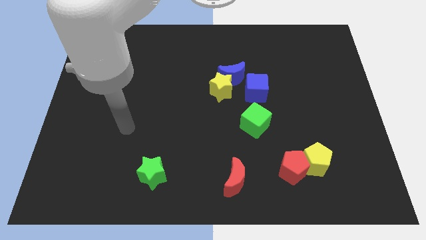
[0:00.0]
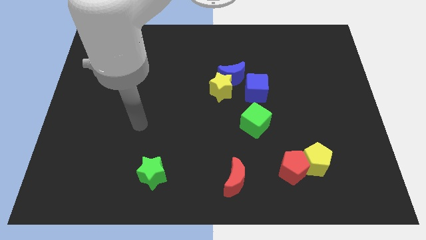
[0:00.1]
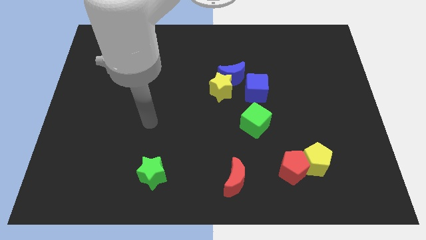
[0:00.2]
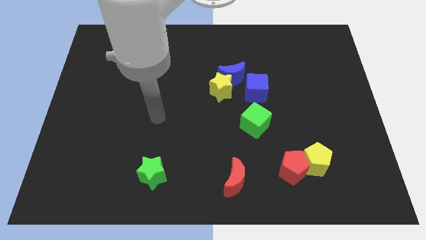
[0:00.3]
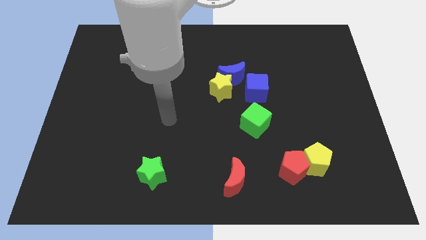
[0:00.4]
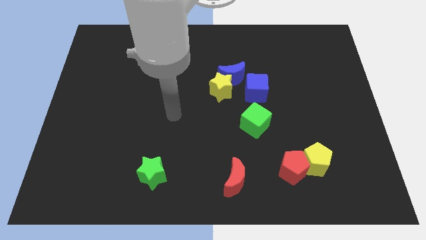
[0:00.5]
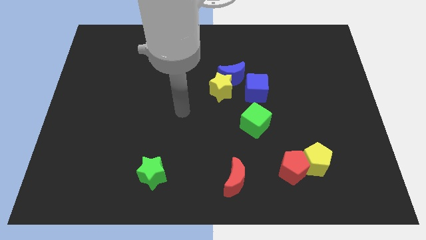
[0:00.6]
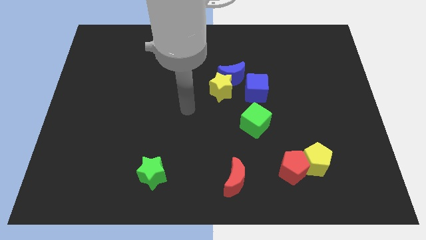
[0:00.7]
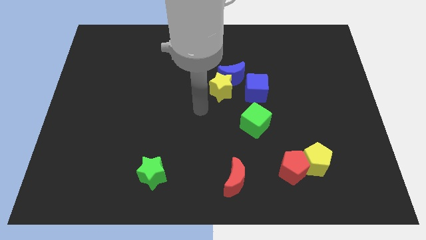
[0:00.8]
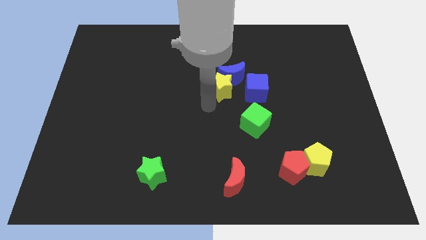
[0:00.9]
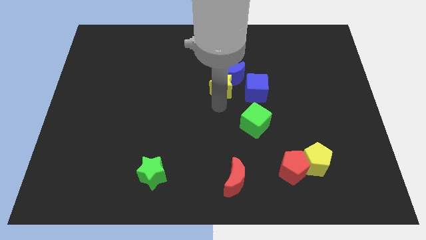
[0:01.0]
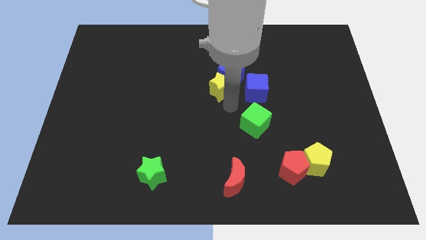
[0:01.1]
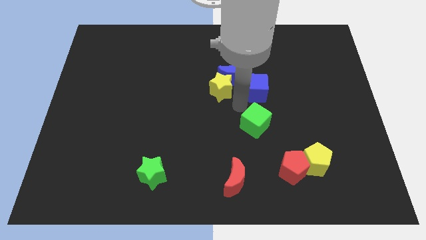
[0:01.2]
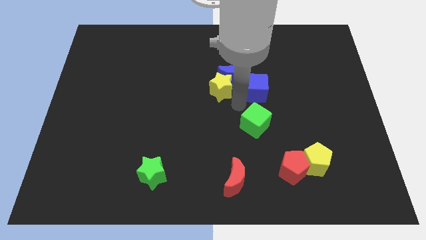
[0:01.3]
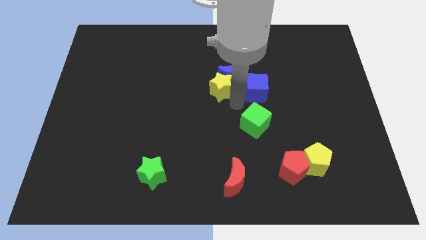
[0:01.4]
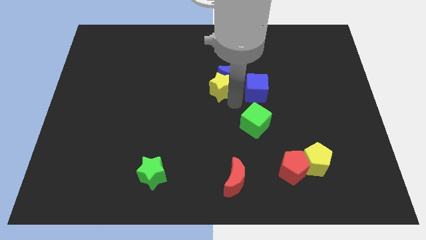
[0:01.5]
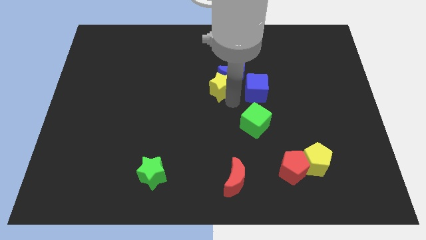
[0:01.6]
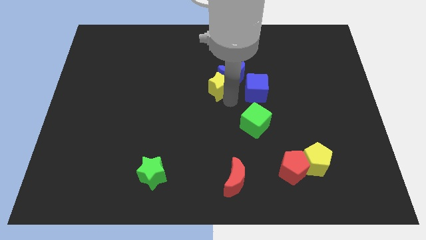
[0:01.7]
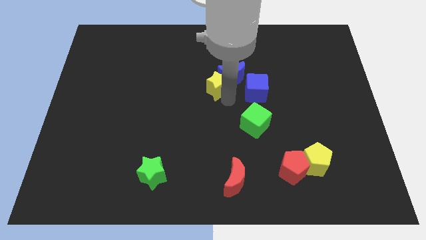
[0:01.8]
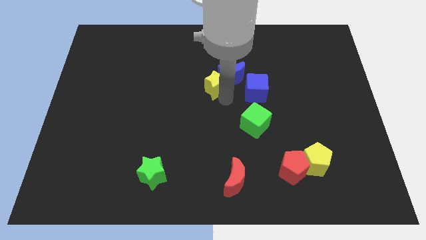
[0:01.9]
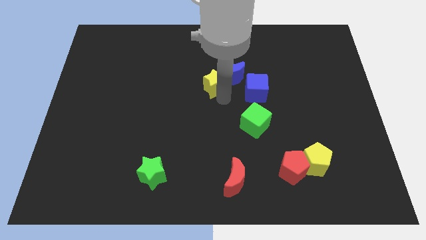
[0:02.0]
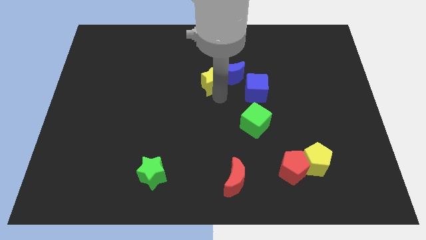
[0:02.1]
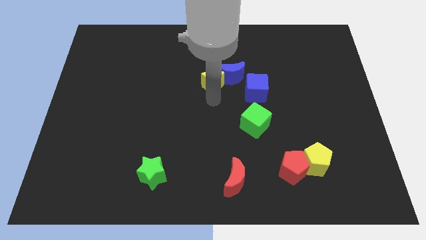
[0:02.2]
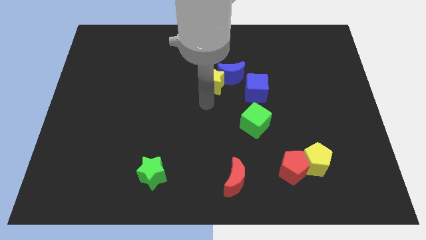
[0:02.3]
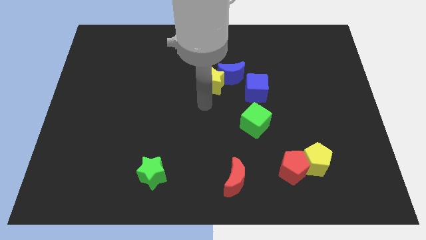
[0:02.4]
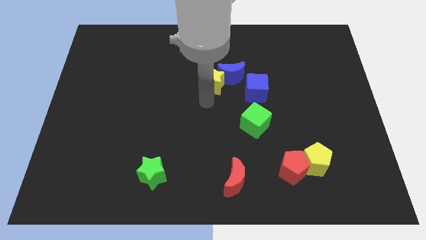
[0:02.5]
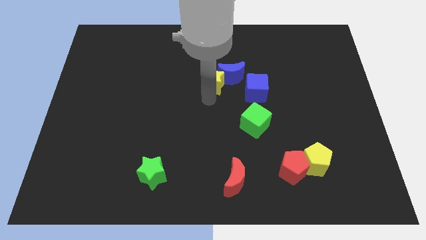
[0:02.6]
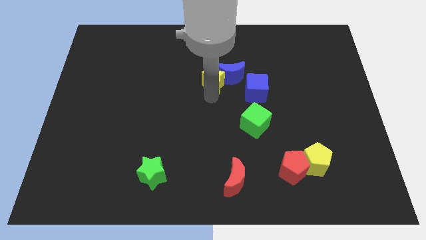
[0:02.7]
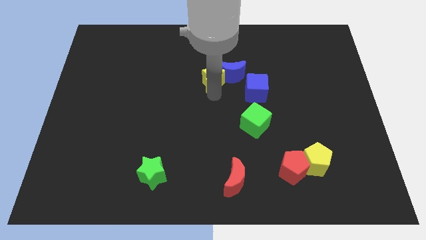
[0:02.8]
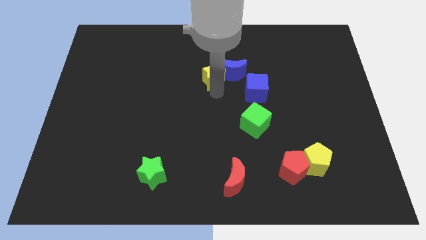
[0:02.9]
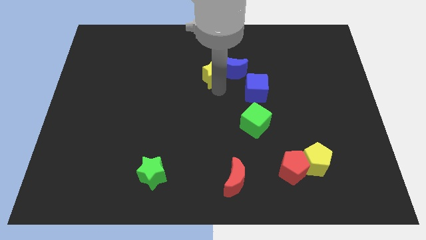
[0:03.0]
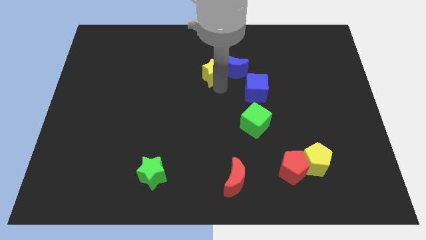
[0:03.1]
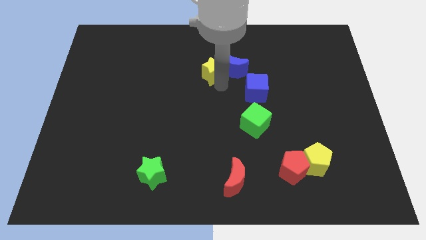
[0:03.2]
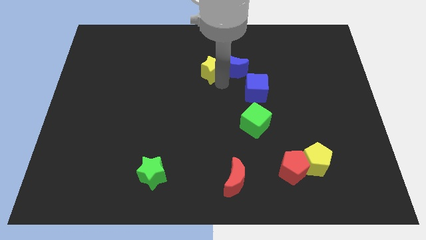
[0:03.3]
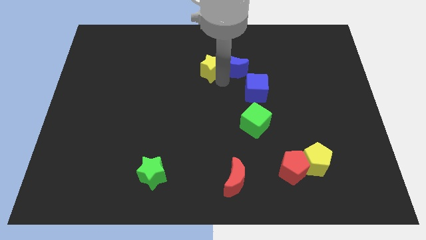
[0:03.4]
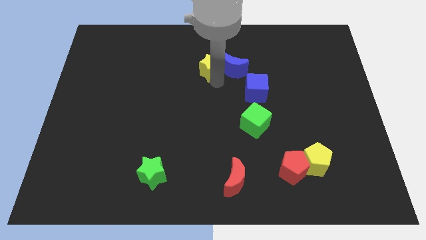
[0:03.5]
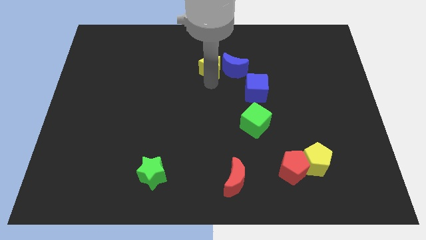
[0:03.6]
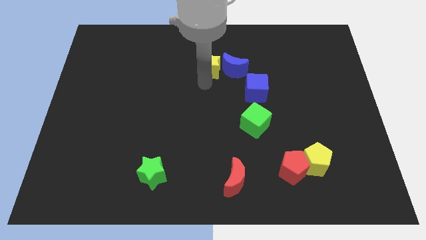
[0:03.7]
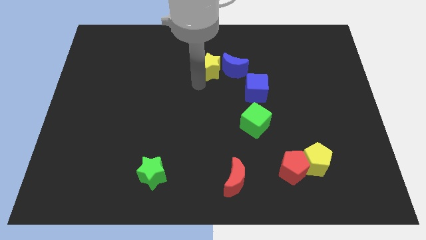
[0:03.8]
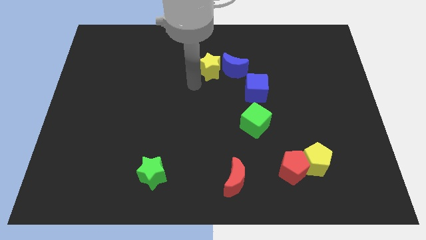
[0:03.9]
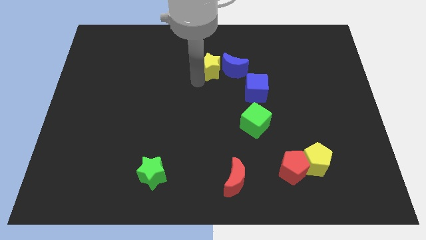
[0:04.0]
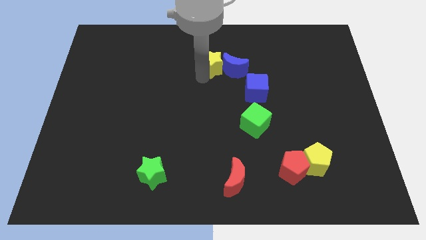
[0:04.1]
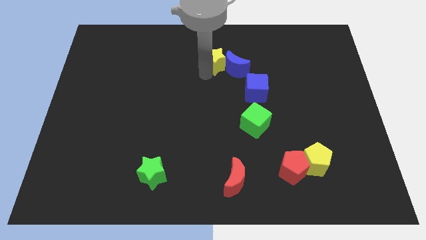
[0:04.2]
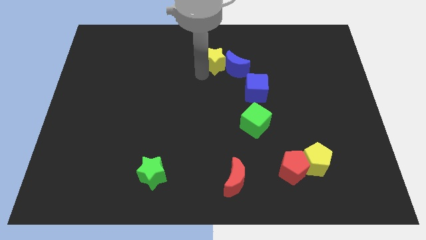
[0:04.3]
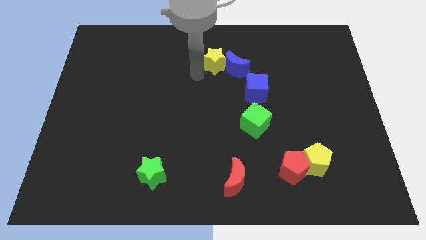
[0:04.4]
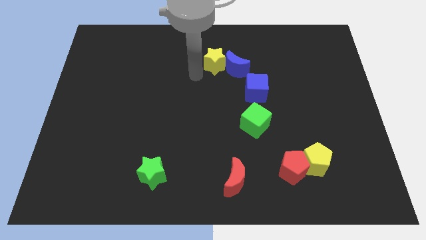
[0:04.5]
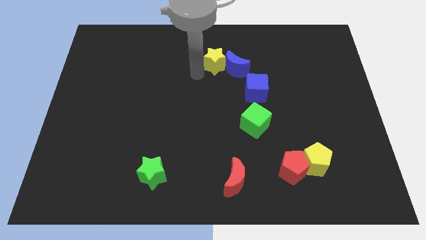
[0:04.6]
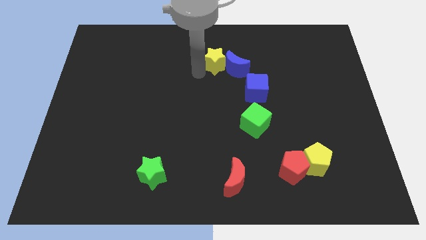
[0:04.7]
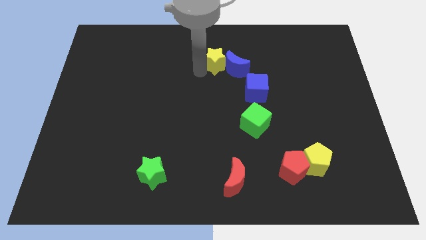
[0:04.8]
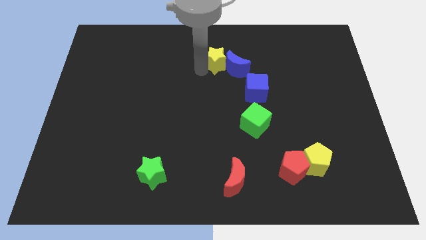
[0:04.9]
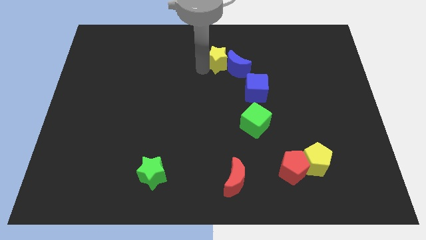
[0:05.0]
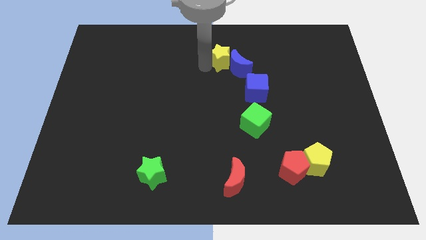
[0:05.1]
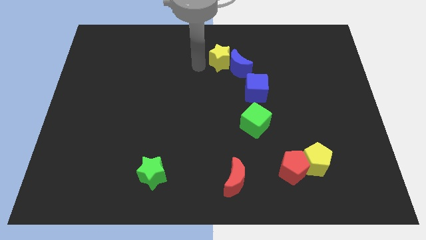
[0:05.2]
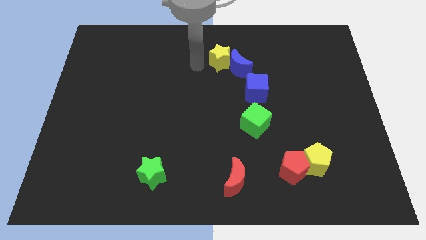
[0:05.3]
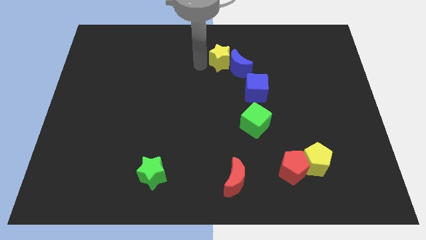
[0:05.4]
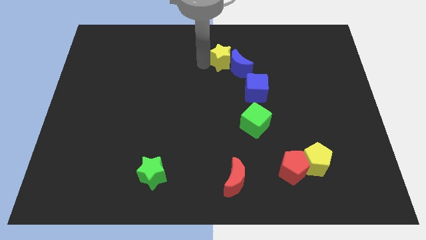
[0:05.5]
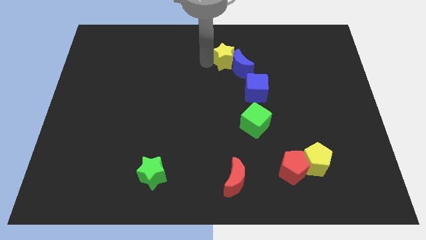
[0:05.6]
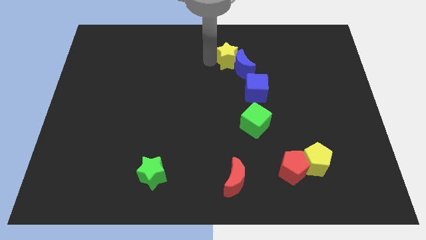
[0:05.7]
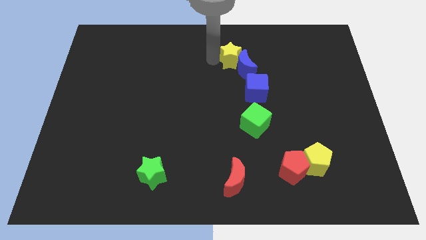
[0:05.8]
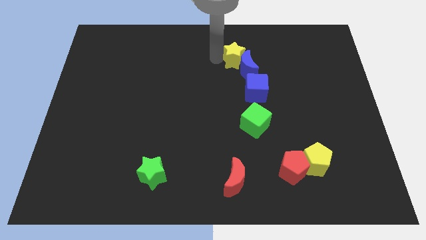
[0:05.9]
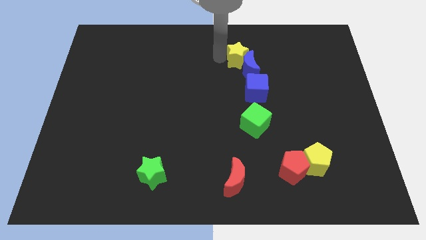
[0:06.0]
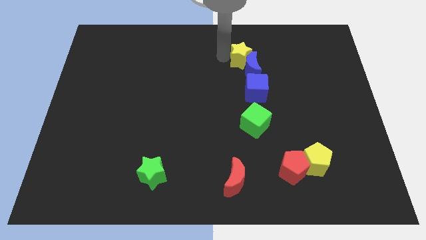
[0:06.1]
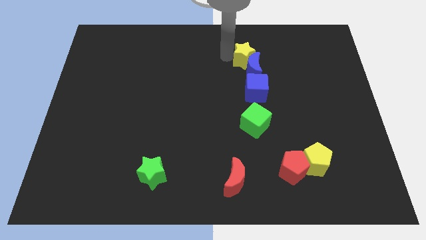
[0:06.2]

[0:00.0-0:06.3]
push the yellow star to the top right side of the blue moon
